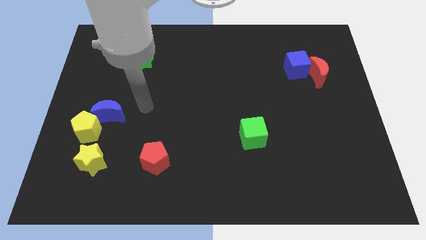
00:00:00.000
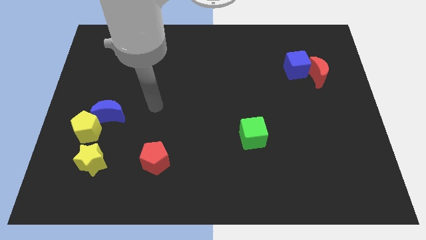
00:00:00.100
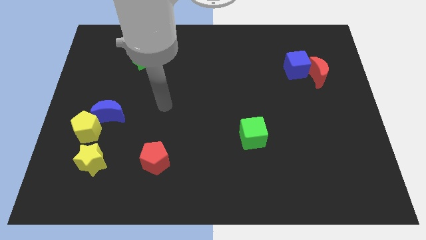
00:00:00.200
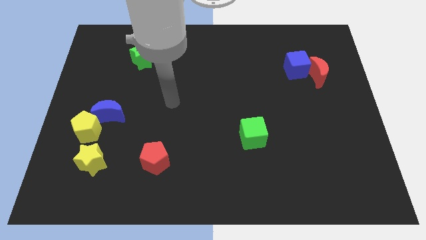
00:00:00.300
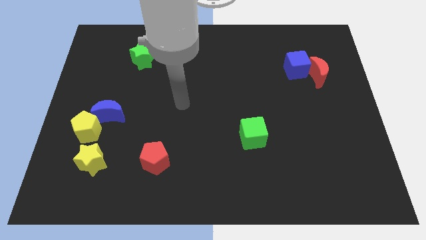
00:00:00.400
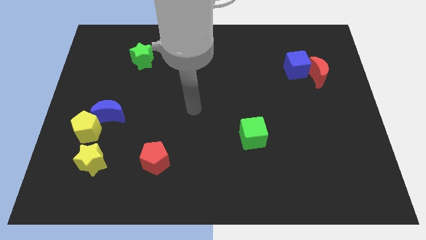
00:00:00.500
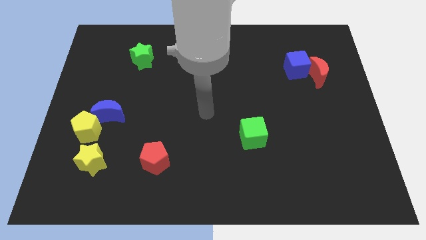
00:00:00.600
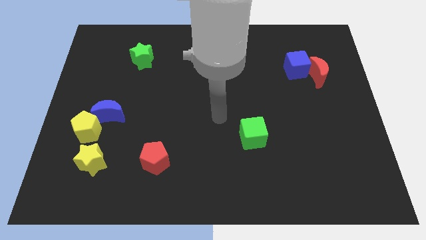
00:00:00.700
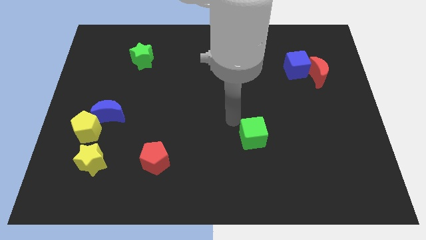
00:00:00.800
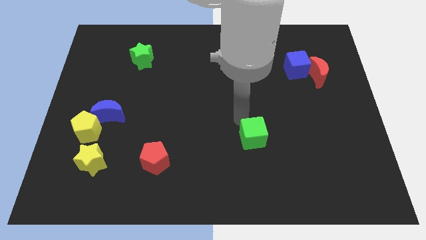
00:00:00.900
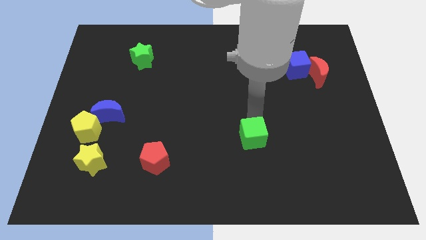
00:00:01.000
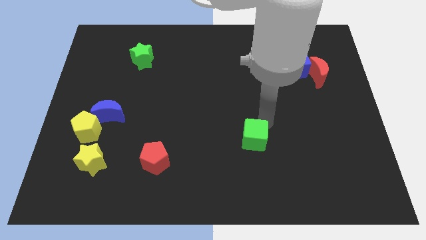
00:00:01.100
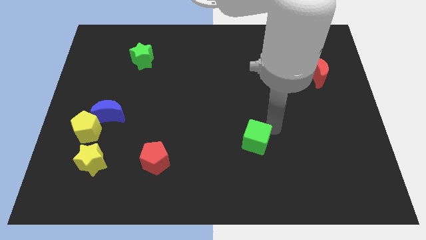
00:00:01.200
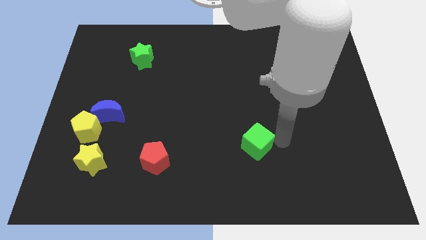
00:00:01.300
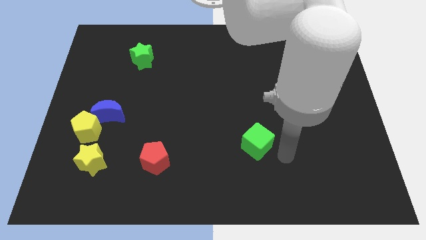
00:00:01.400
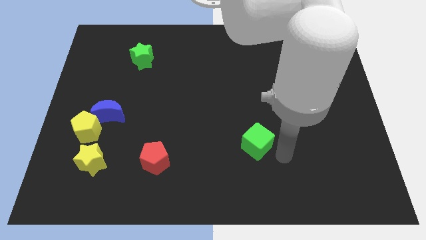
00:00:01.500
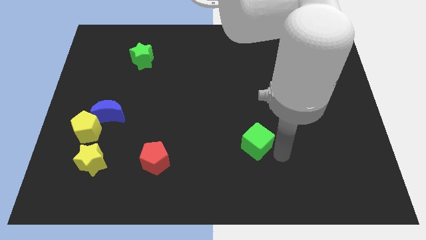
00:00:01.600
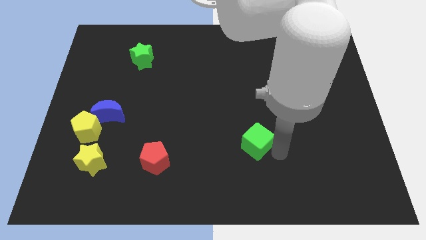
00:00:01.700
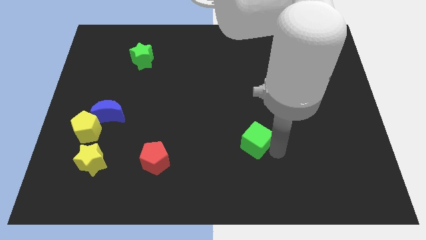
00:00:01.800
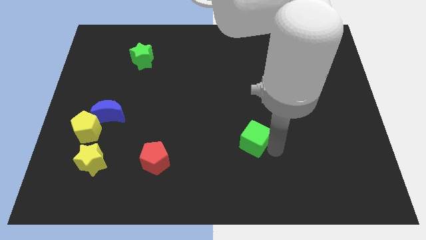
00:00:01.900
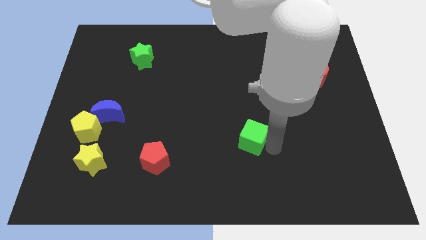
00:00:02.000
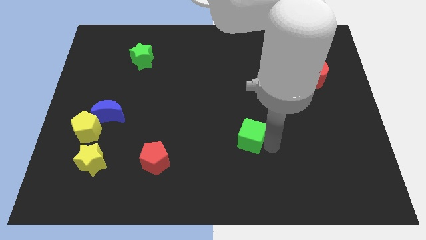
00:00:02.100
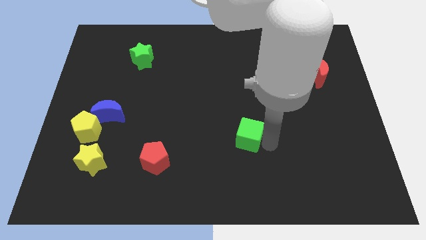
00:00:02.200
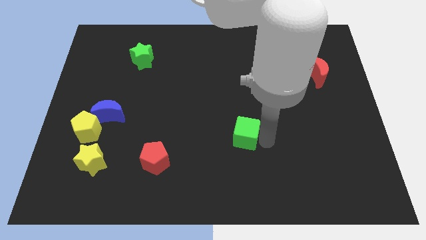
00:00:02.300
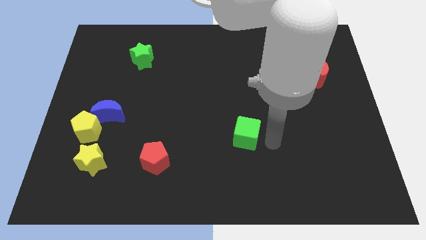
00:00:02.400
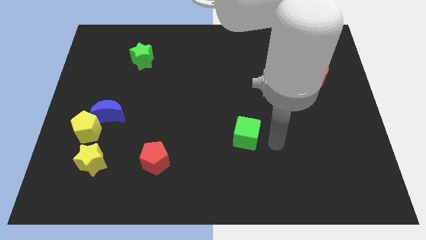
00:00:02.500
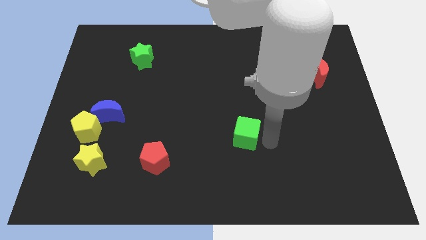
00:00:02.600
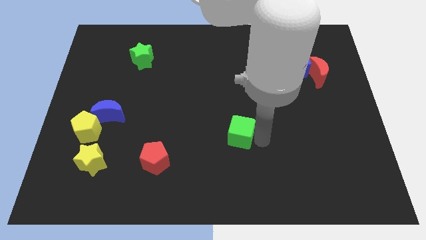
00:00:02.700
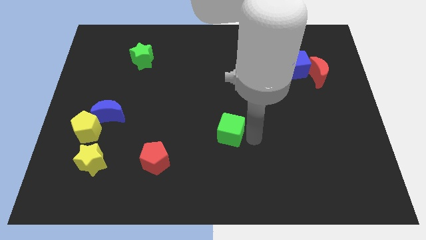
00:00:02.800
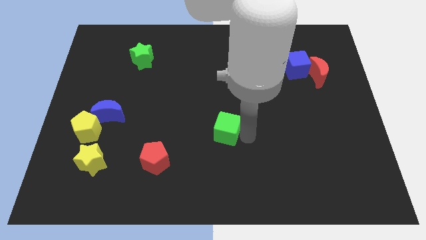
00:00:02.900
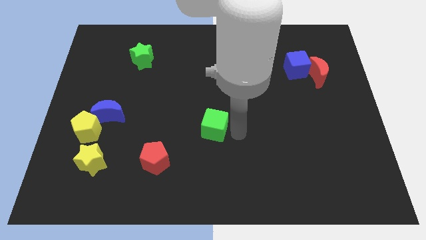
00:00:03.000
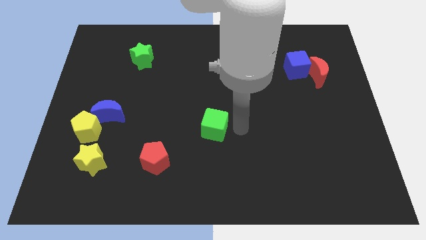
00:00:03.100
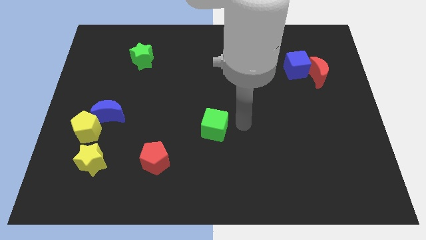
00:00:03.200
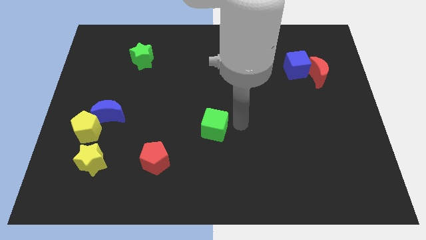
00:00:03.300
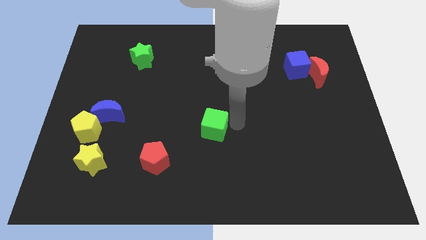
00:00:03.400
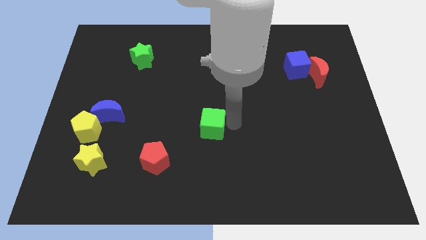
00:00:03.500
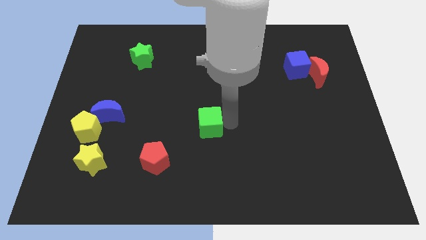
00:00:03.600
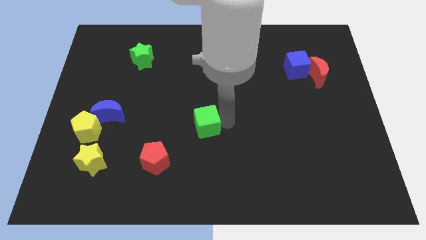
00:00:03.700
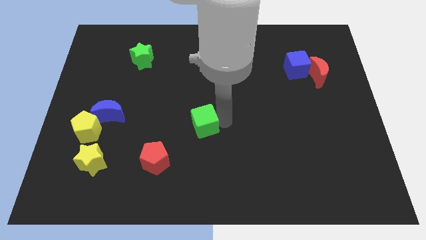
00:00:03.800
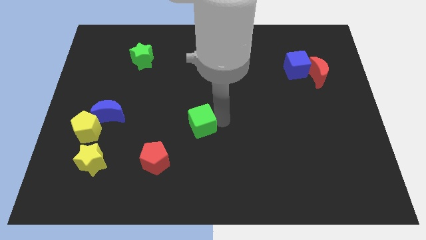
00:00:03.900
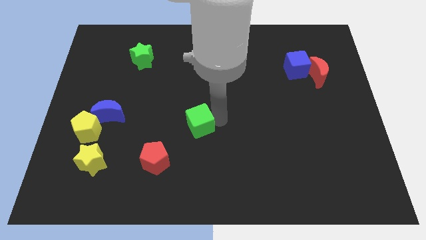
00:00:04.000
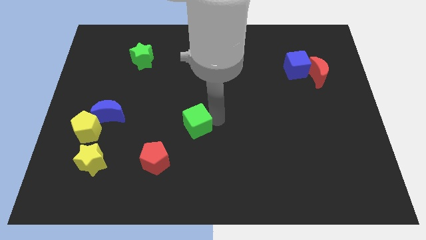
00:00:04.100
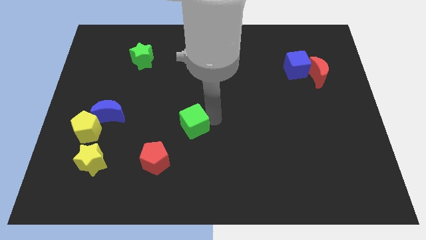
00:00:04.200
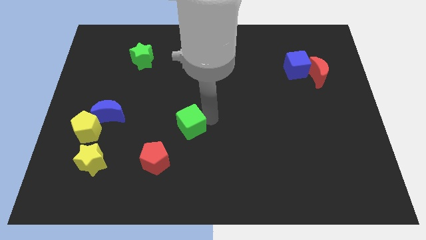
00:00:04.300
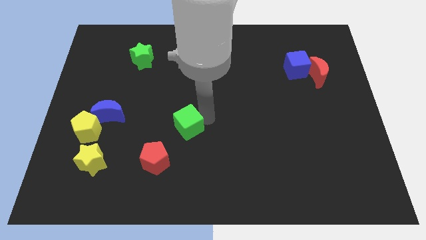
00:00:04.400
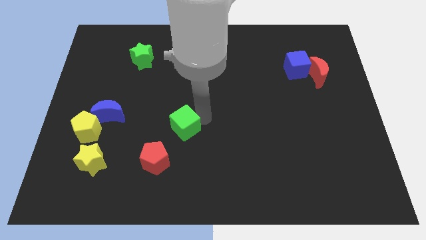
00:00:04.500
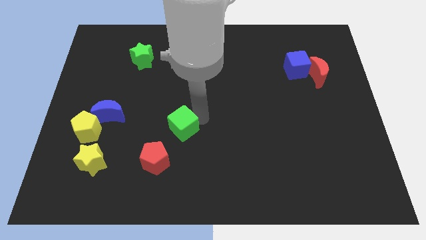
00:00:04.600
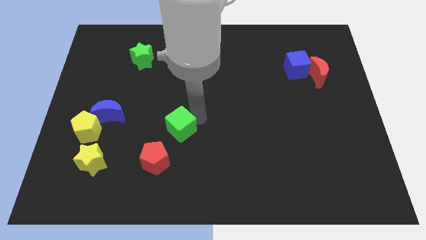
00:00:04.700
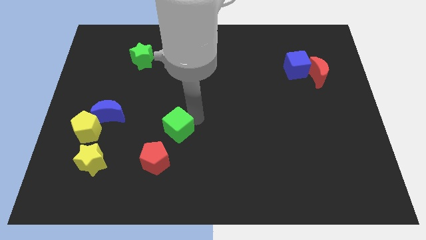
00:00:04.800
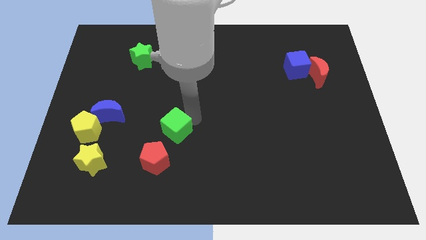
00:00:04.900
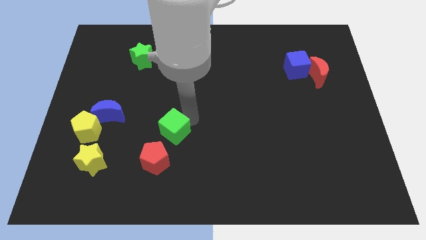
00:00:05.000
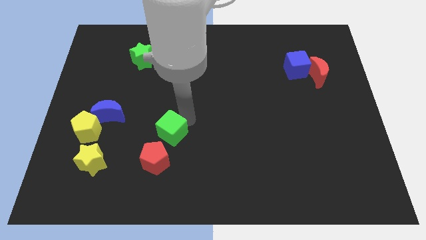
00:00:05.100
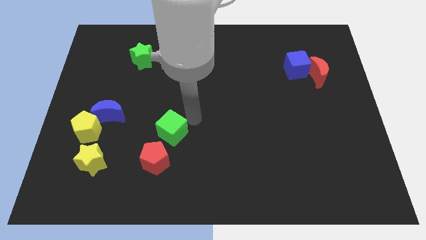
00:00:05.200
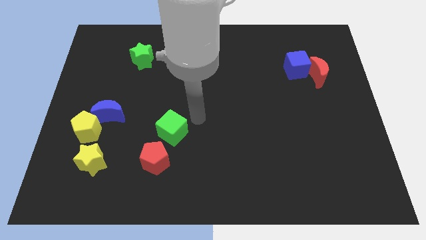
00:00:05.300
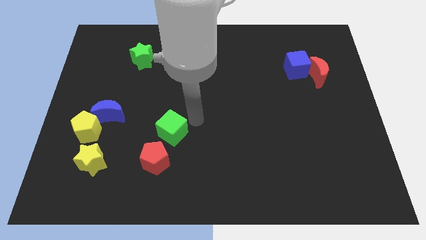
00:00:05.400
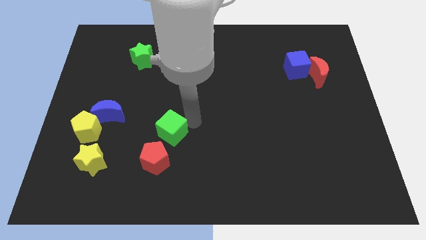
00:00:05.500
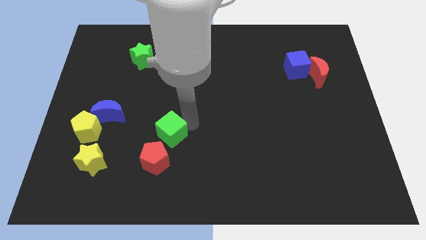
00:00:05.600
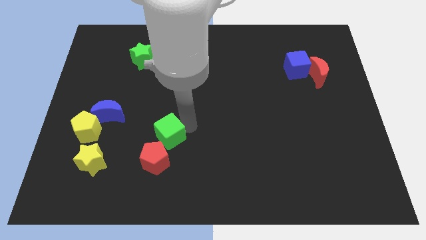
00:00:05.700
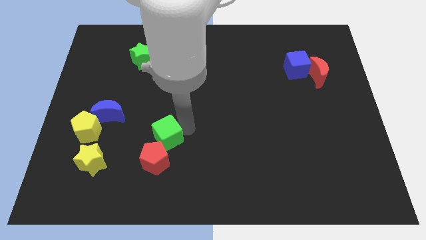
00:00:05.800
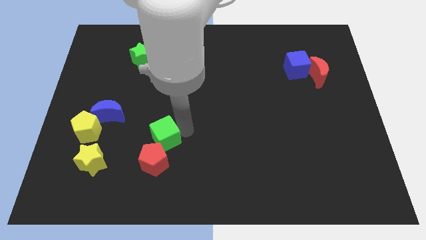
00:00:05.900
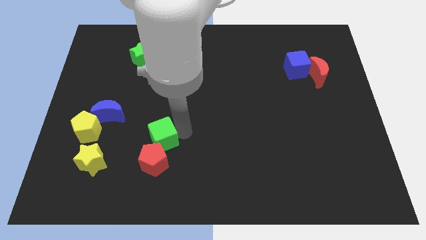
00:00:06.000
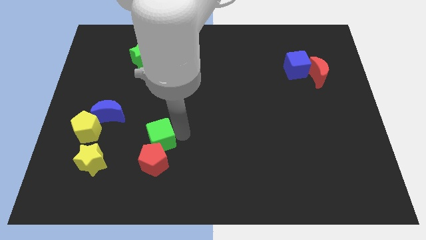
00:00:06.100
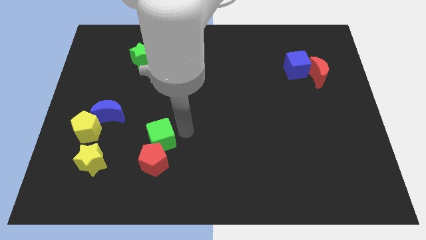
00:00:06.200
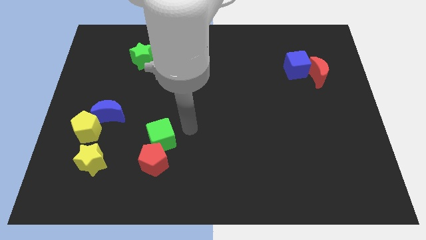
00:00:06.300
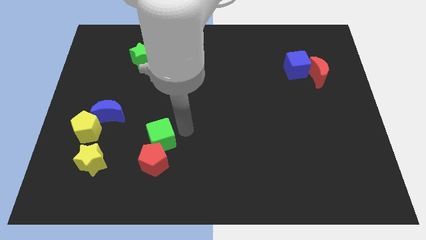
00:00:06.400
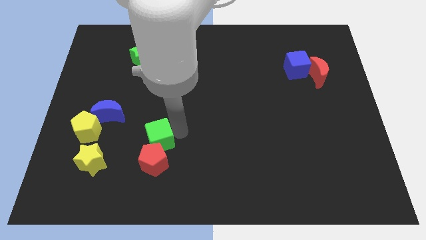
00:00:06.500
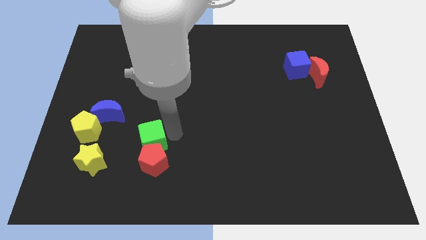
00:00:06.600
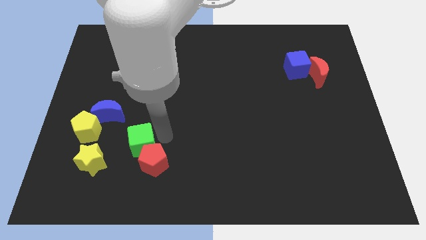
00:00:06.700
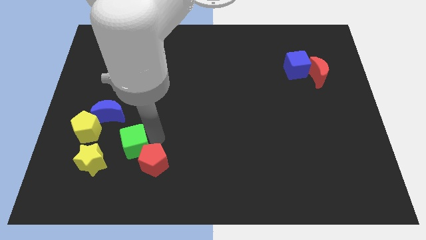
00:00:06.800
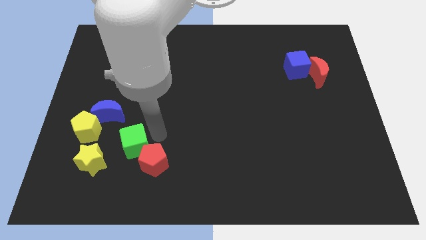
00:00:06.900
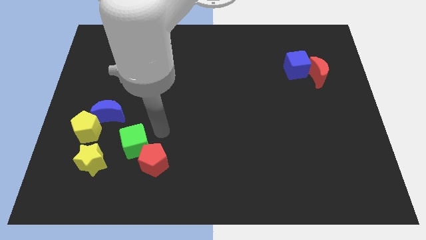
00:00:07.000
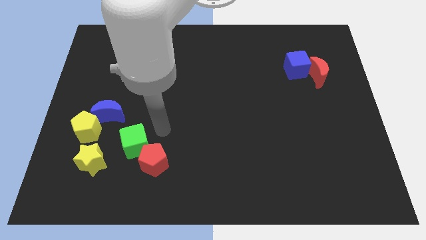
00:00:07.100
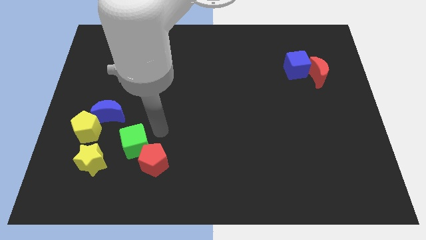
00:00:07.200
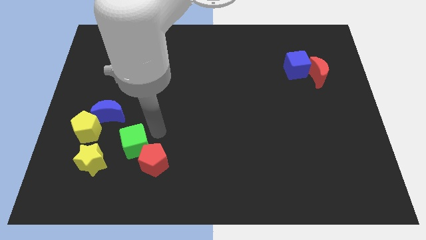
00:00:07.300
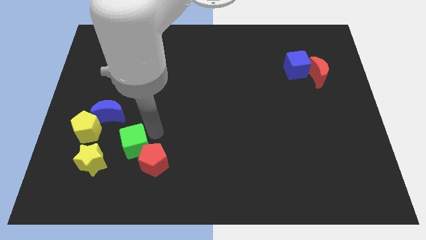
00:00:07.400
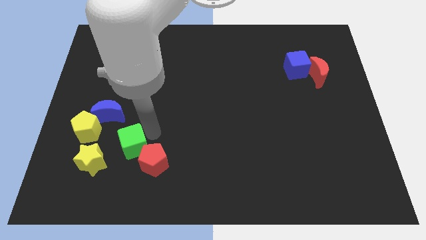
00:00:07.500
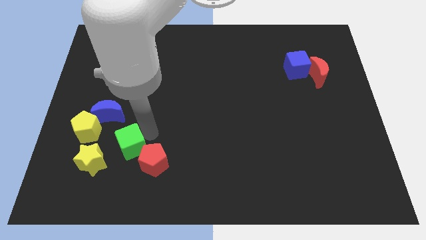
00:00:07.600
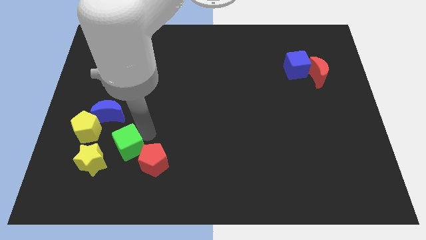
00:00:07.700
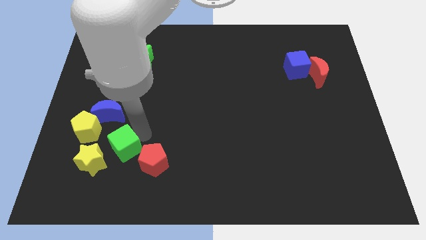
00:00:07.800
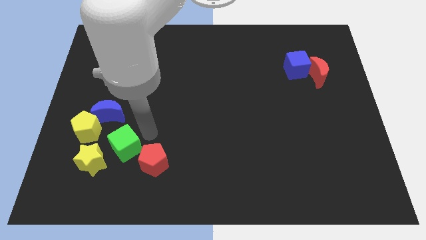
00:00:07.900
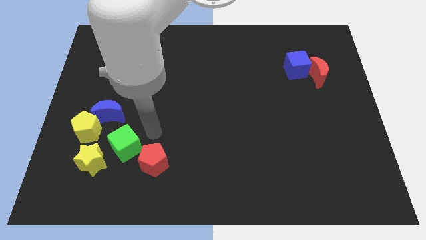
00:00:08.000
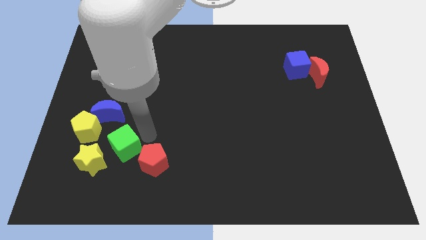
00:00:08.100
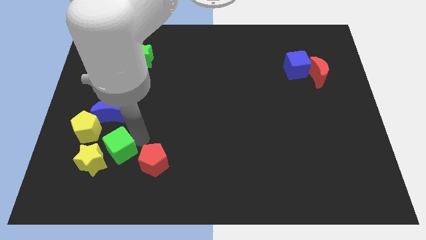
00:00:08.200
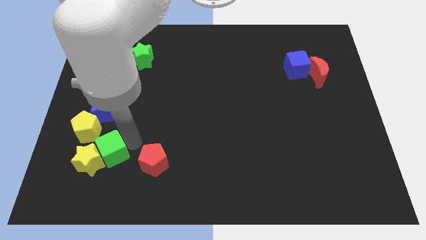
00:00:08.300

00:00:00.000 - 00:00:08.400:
put the green cube towards the yellow star
